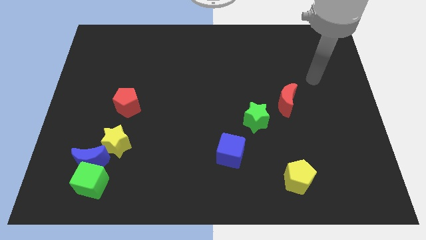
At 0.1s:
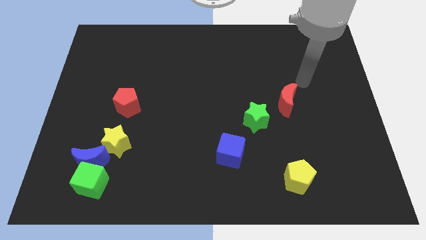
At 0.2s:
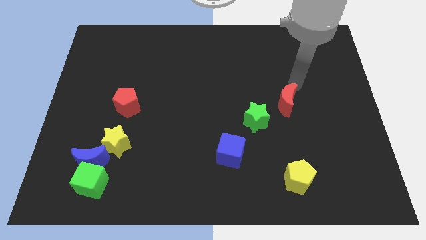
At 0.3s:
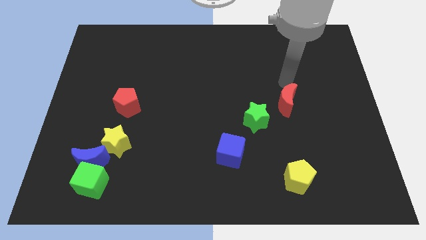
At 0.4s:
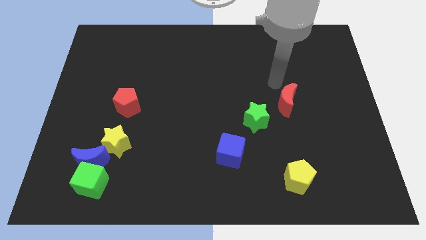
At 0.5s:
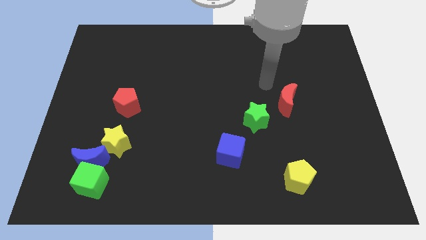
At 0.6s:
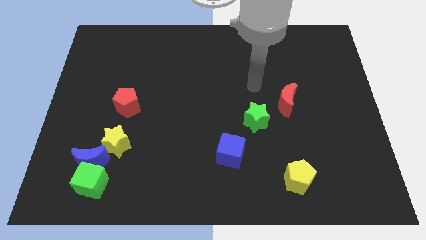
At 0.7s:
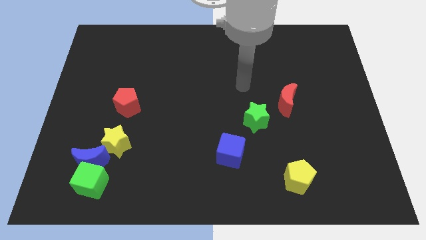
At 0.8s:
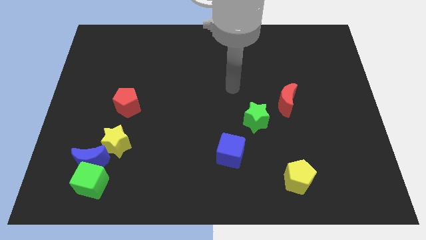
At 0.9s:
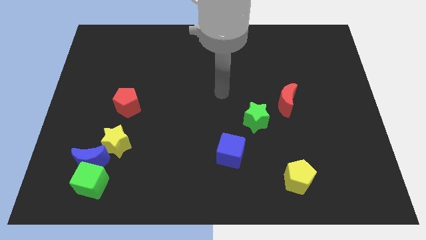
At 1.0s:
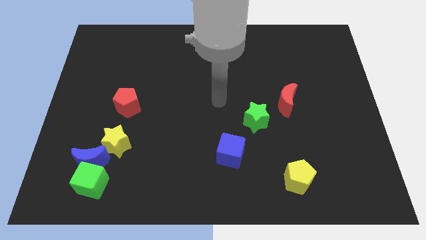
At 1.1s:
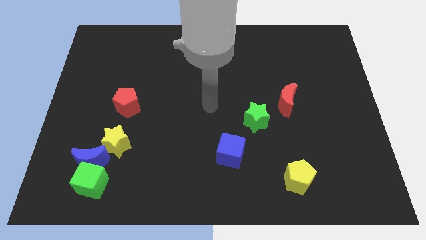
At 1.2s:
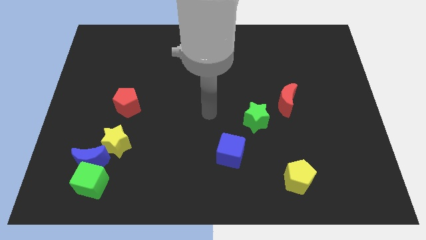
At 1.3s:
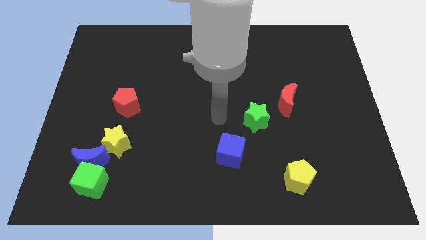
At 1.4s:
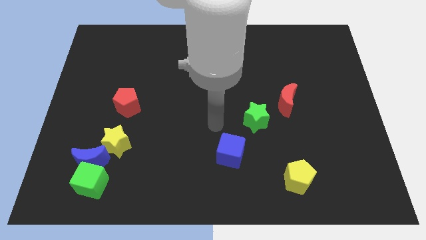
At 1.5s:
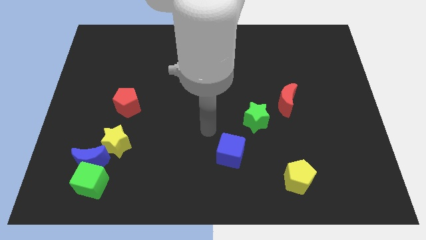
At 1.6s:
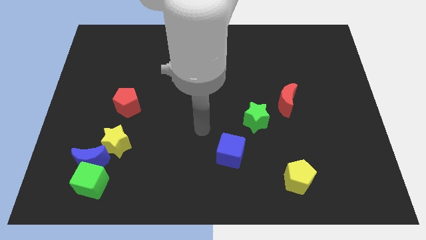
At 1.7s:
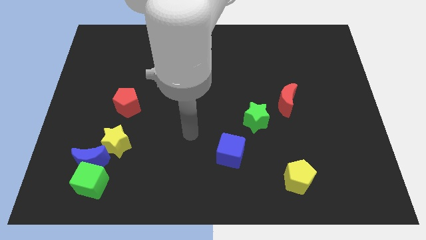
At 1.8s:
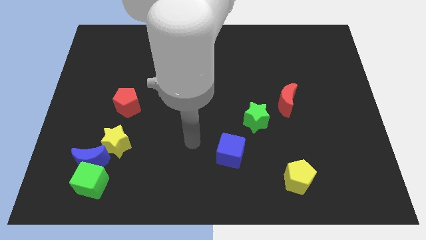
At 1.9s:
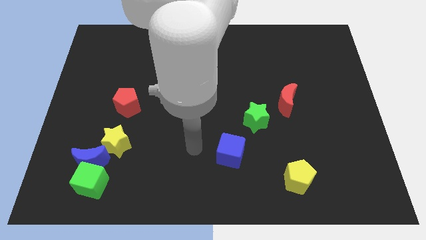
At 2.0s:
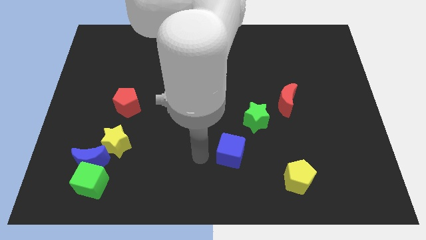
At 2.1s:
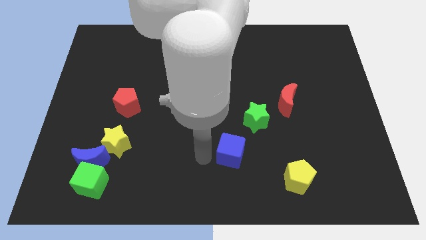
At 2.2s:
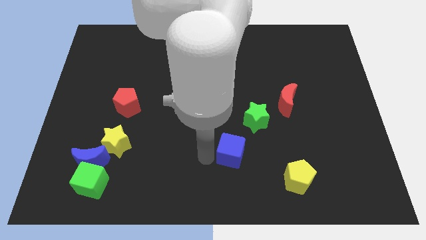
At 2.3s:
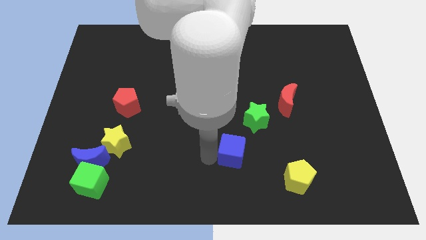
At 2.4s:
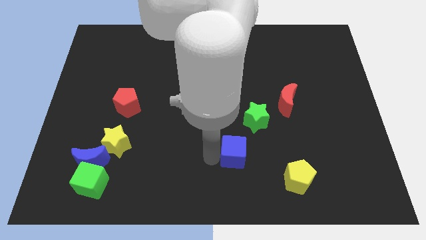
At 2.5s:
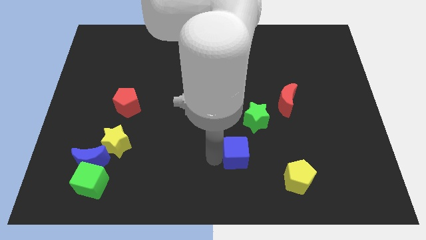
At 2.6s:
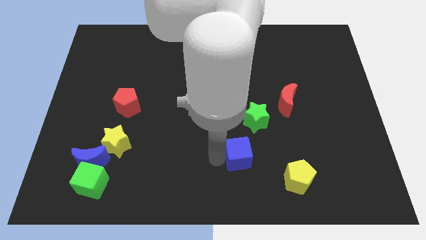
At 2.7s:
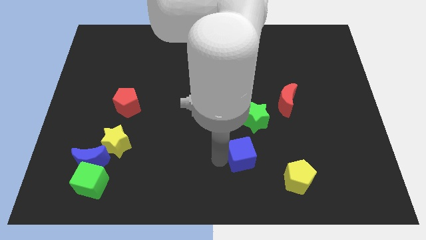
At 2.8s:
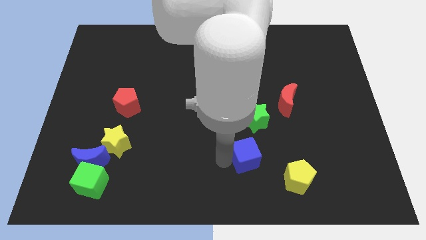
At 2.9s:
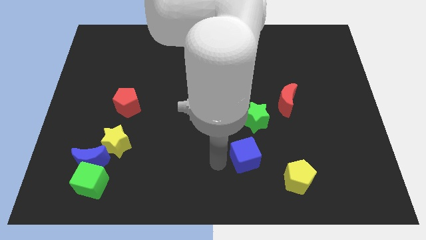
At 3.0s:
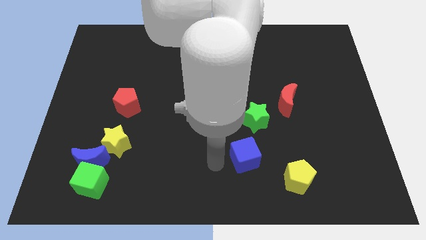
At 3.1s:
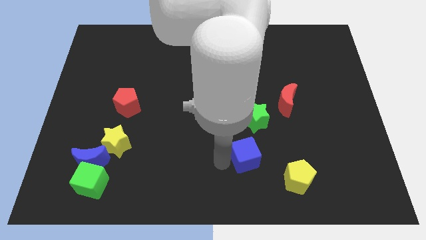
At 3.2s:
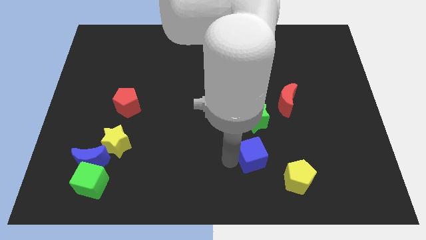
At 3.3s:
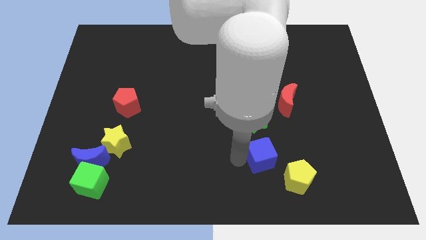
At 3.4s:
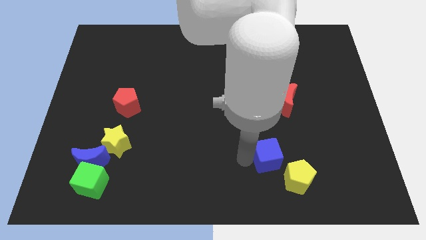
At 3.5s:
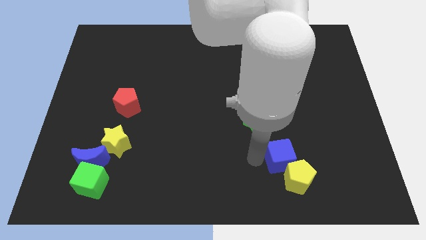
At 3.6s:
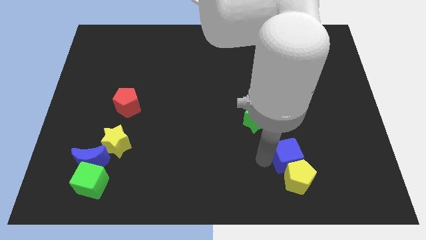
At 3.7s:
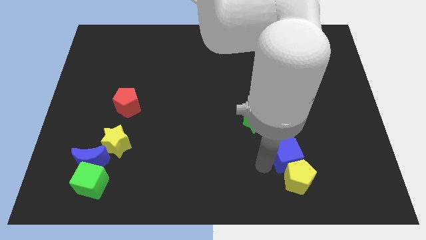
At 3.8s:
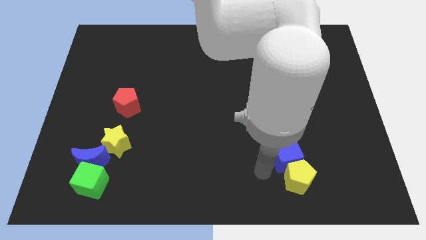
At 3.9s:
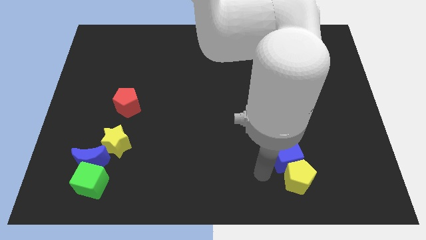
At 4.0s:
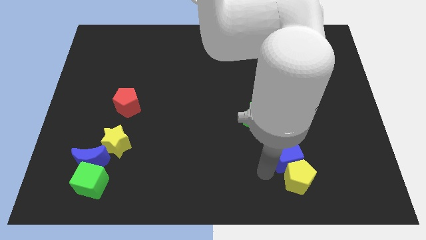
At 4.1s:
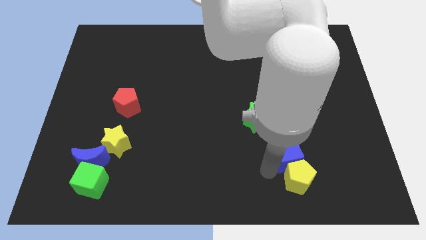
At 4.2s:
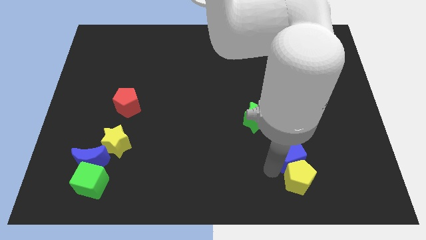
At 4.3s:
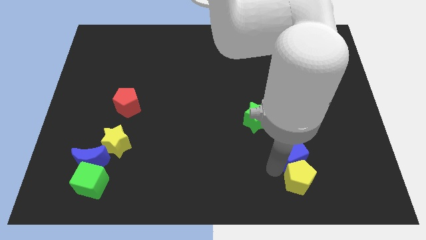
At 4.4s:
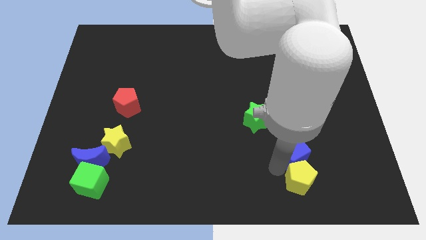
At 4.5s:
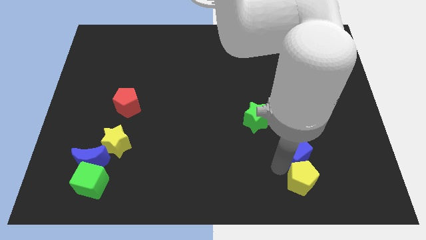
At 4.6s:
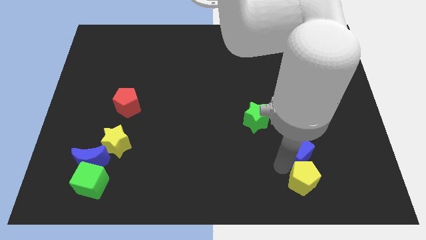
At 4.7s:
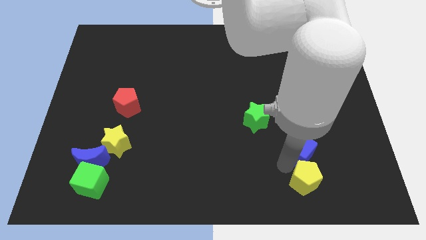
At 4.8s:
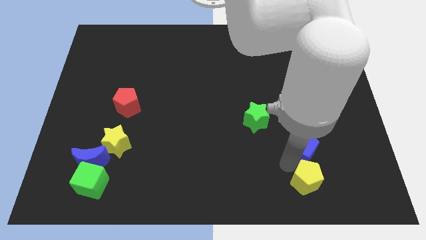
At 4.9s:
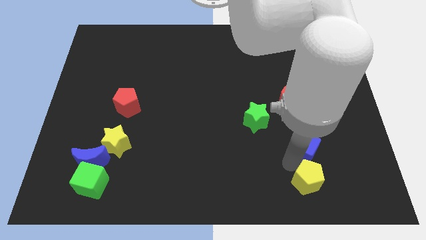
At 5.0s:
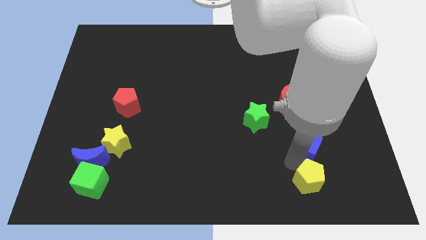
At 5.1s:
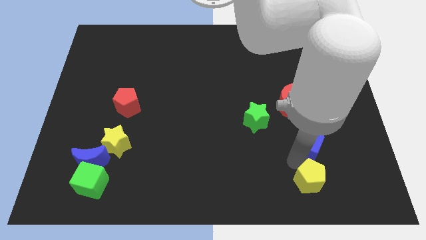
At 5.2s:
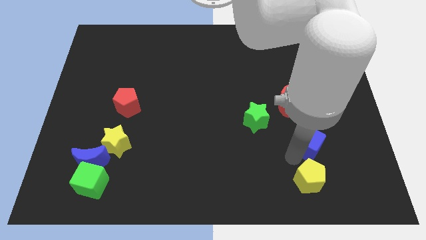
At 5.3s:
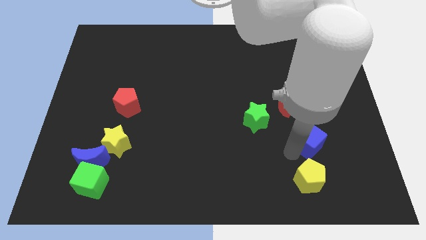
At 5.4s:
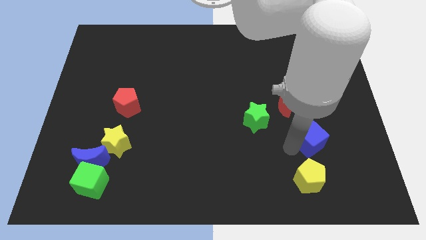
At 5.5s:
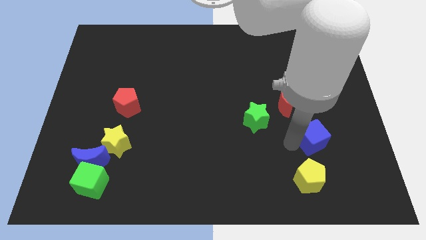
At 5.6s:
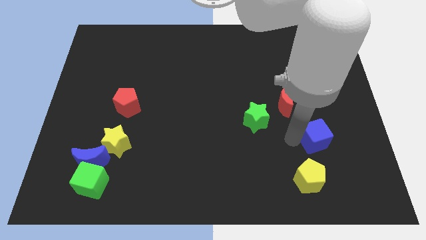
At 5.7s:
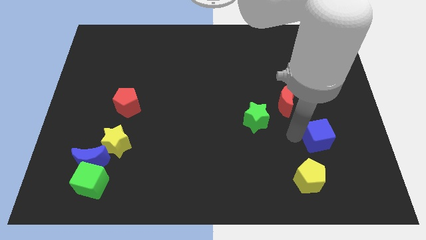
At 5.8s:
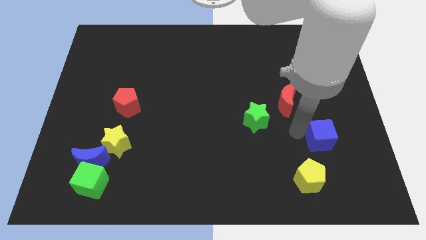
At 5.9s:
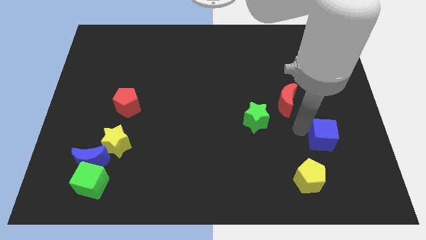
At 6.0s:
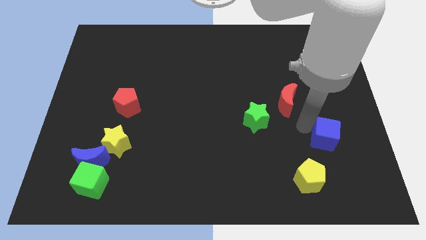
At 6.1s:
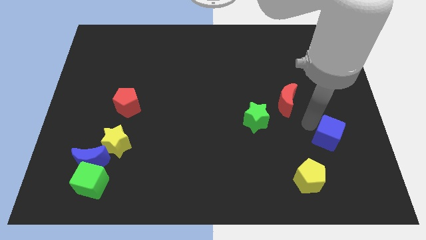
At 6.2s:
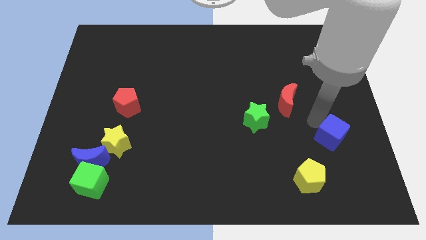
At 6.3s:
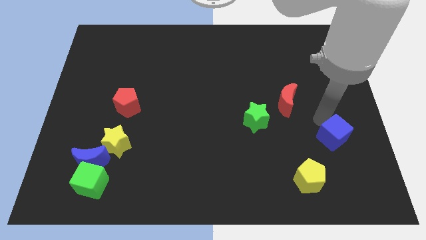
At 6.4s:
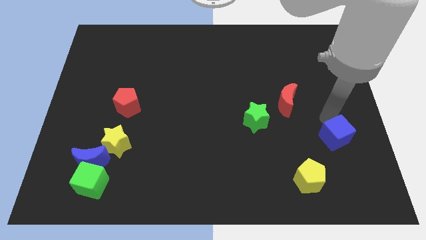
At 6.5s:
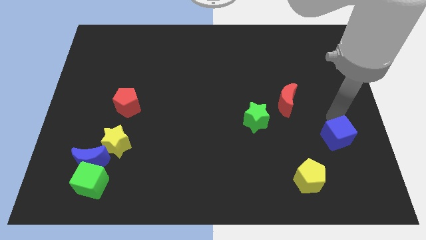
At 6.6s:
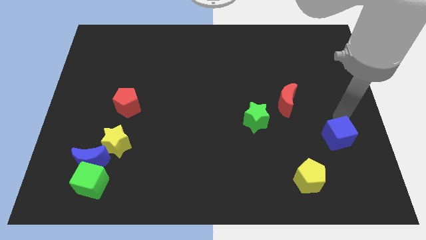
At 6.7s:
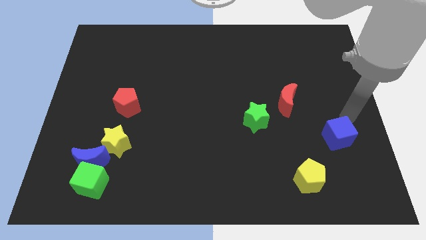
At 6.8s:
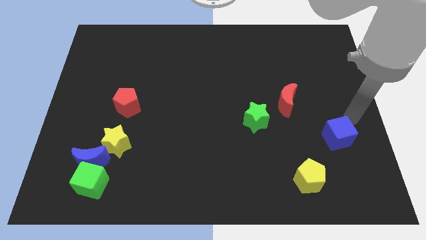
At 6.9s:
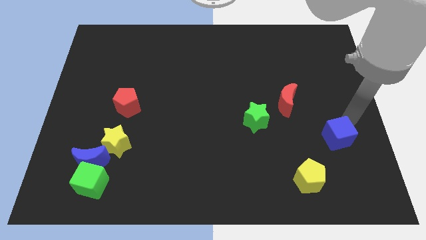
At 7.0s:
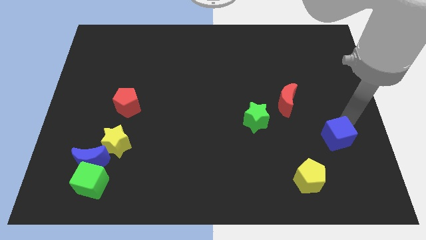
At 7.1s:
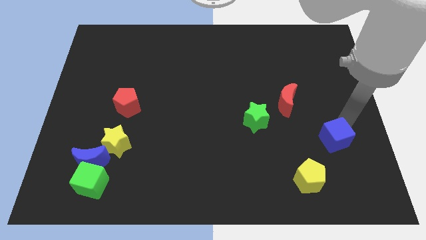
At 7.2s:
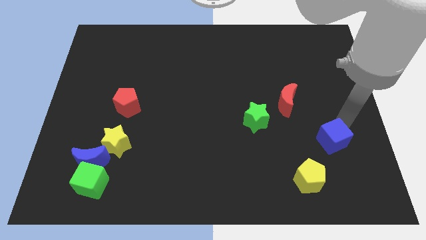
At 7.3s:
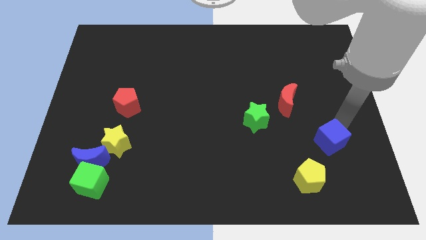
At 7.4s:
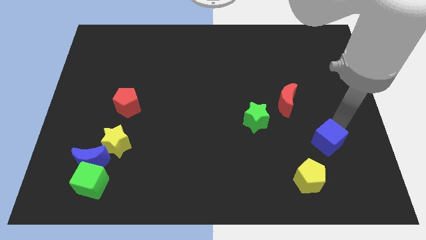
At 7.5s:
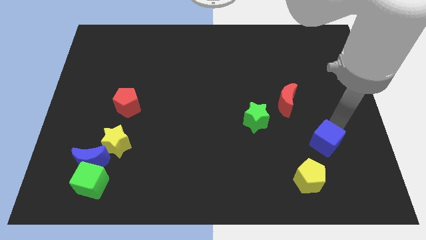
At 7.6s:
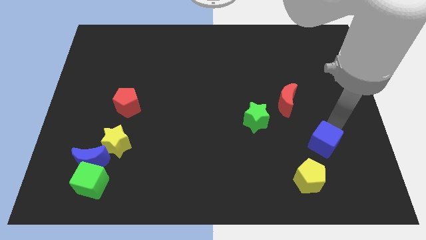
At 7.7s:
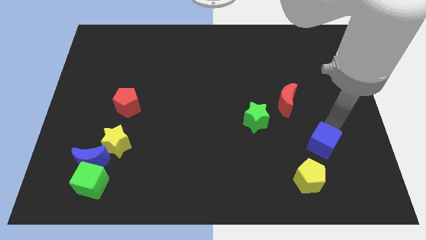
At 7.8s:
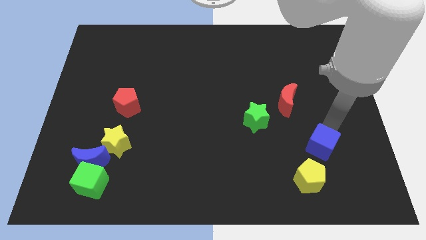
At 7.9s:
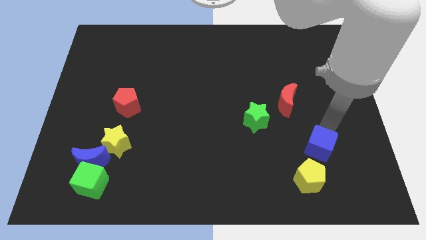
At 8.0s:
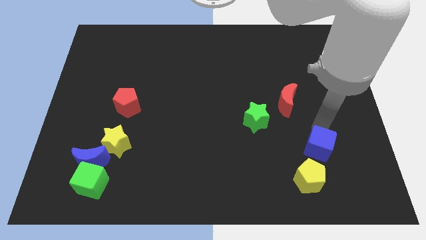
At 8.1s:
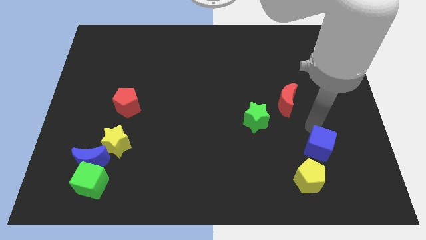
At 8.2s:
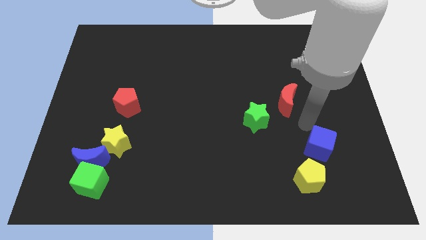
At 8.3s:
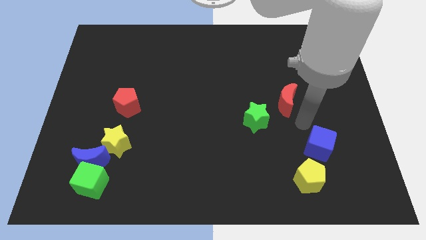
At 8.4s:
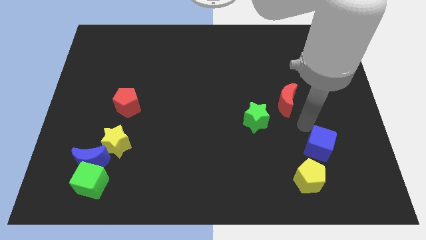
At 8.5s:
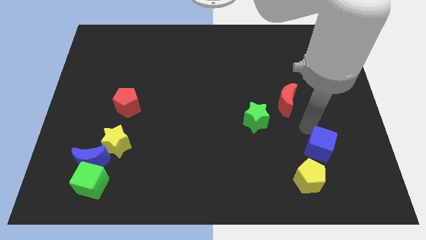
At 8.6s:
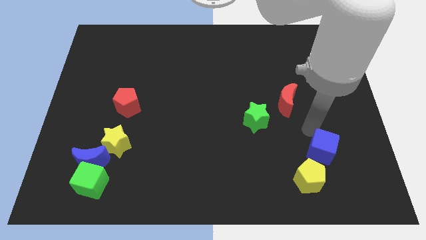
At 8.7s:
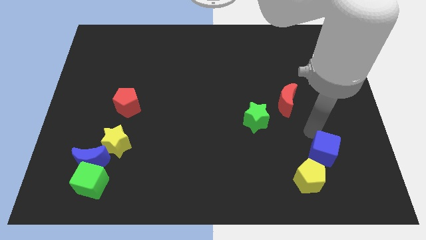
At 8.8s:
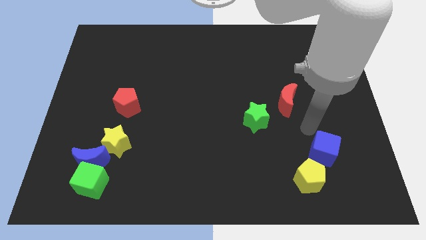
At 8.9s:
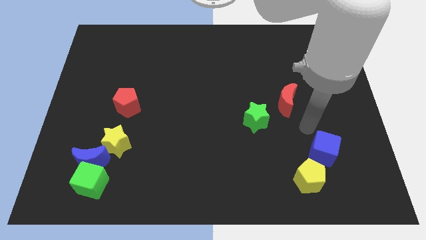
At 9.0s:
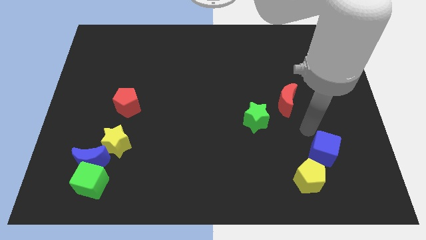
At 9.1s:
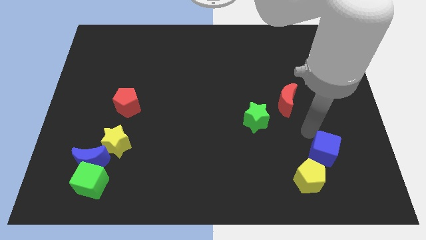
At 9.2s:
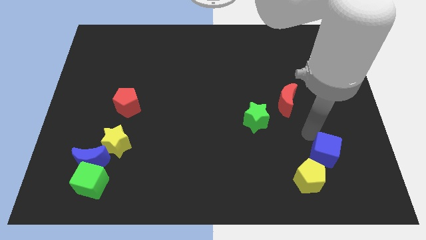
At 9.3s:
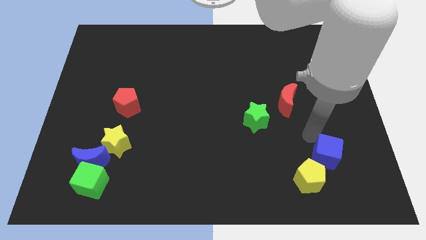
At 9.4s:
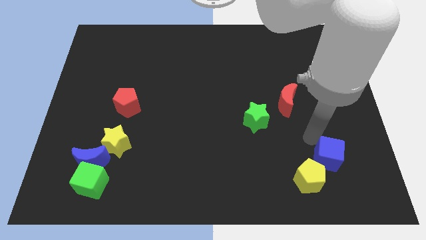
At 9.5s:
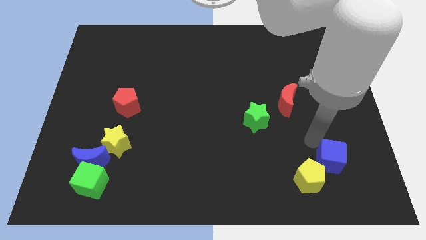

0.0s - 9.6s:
slide the blue cube right of the yellow pentagon
